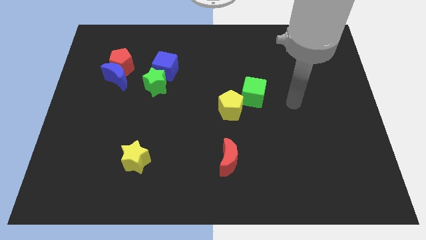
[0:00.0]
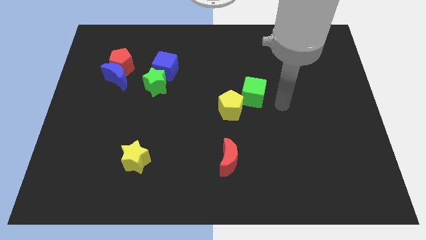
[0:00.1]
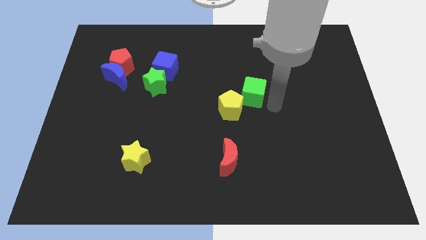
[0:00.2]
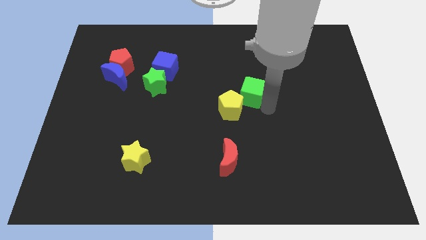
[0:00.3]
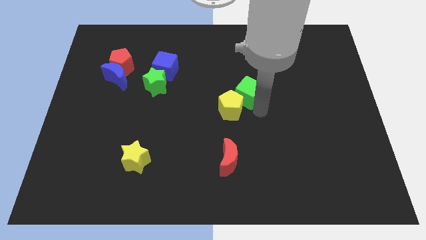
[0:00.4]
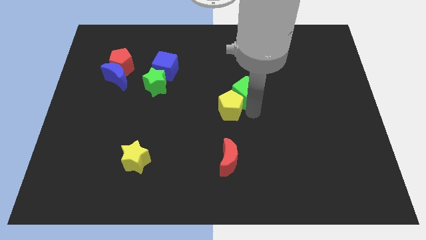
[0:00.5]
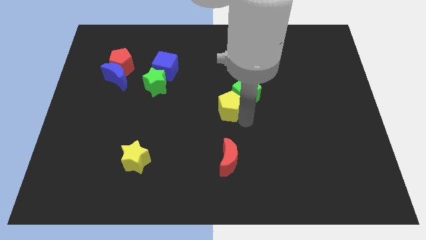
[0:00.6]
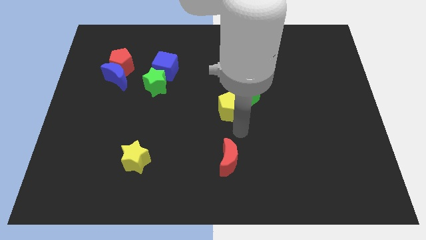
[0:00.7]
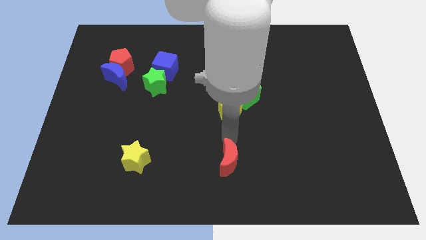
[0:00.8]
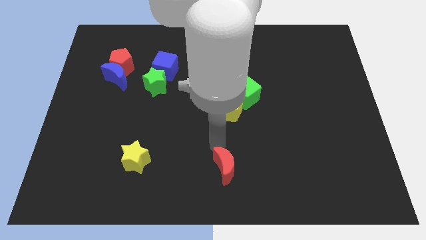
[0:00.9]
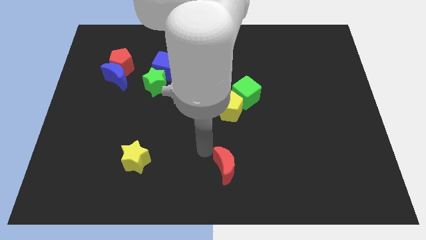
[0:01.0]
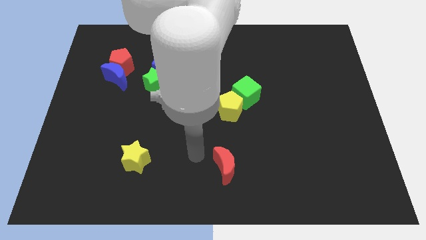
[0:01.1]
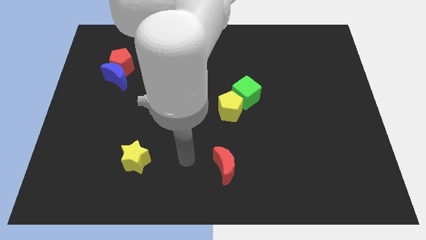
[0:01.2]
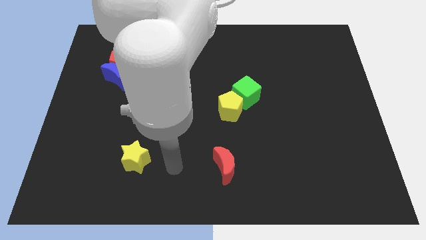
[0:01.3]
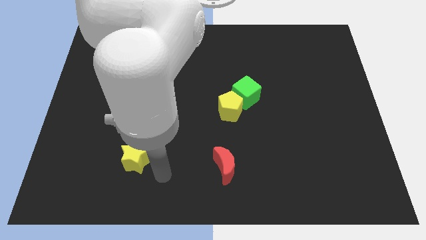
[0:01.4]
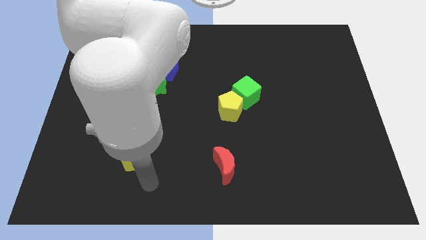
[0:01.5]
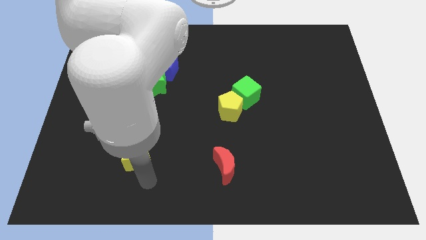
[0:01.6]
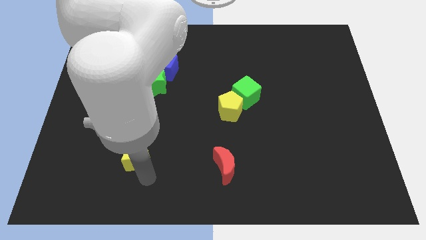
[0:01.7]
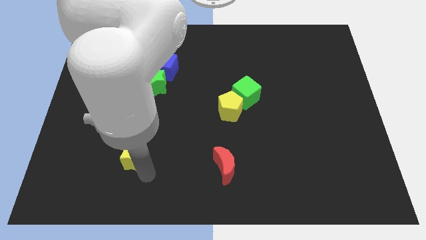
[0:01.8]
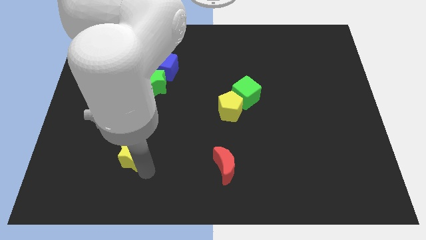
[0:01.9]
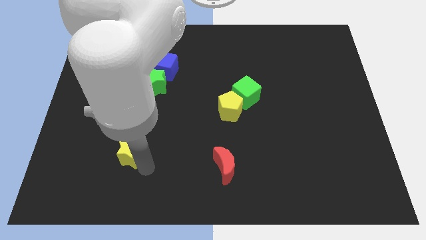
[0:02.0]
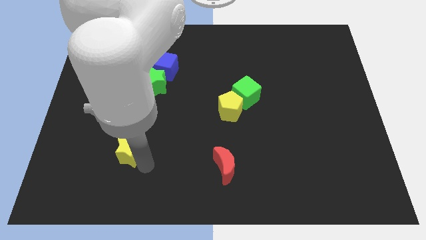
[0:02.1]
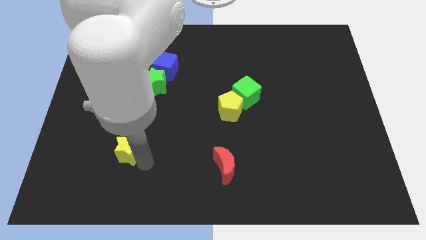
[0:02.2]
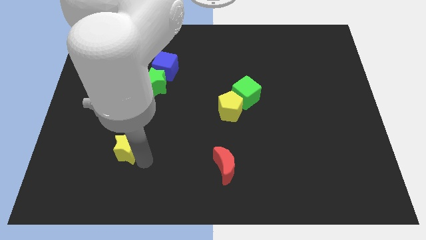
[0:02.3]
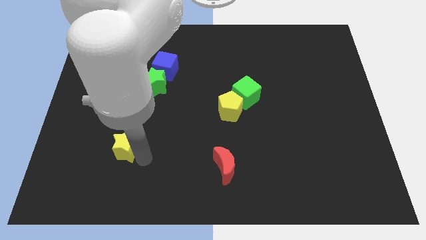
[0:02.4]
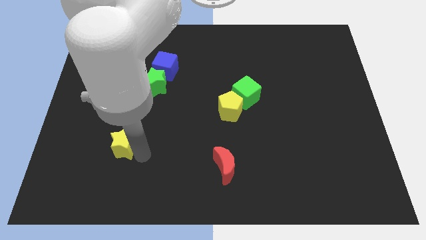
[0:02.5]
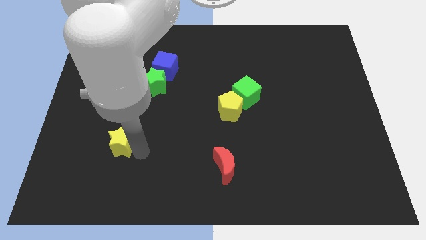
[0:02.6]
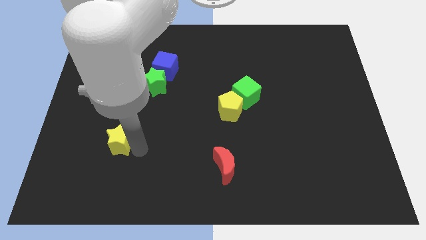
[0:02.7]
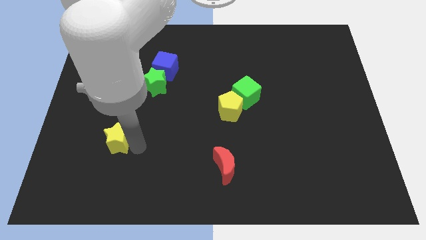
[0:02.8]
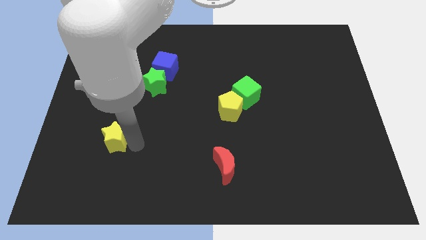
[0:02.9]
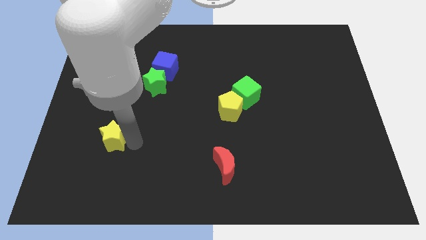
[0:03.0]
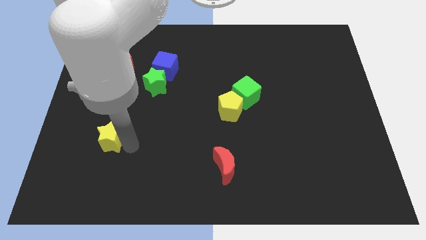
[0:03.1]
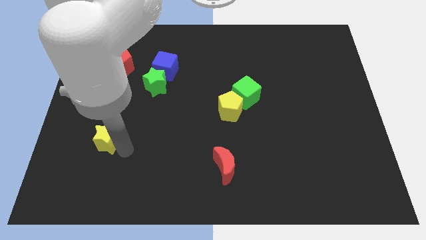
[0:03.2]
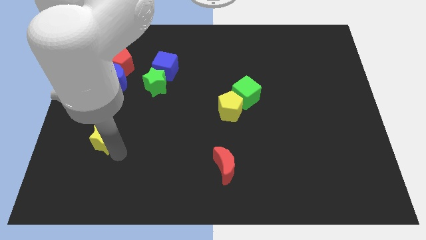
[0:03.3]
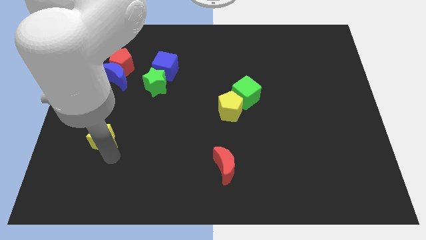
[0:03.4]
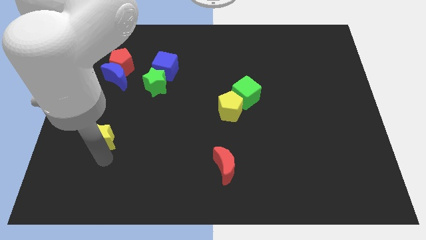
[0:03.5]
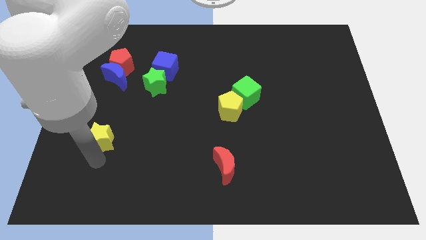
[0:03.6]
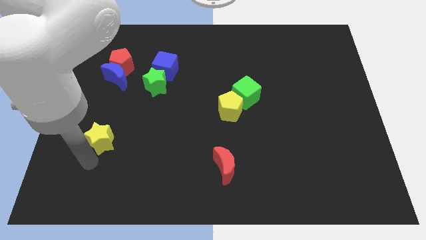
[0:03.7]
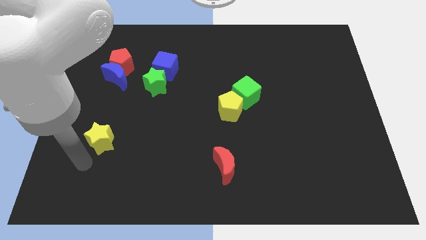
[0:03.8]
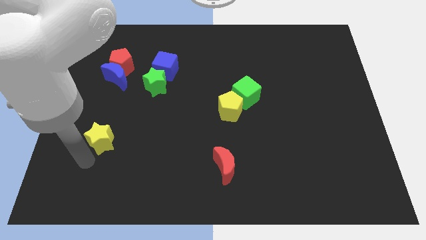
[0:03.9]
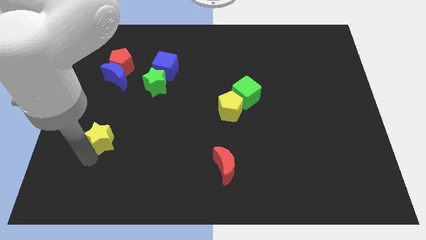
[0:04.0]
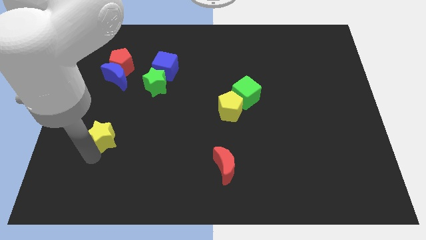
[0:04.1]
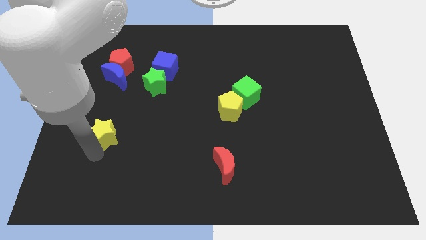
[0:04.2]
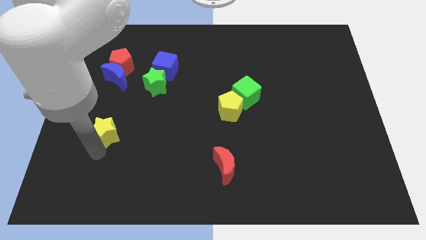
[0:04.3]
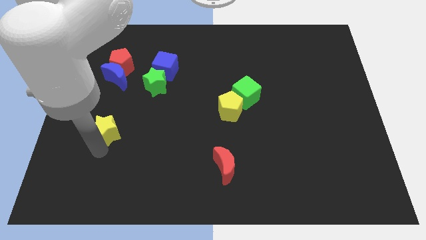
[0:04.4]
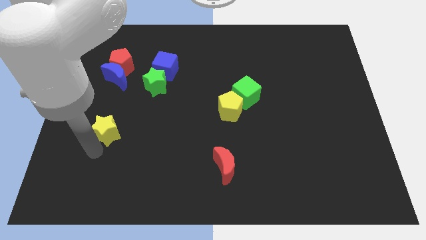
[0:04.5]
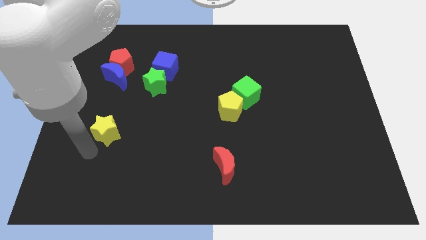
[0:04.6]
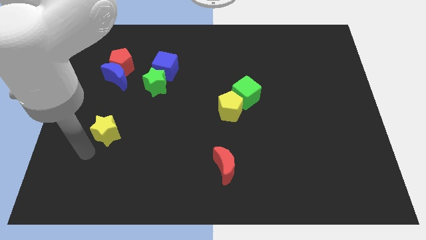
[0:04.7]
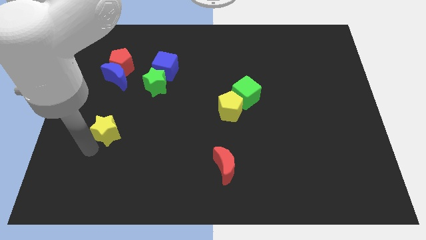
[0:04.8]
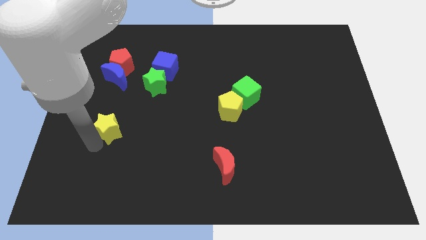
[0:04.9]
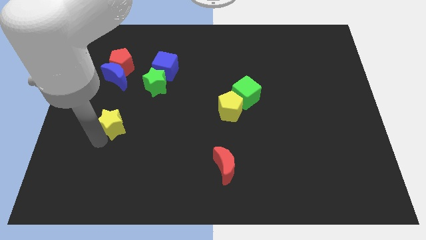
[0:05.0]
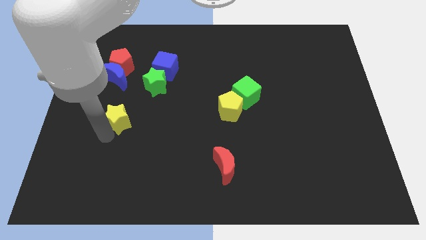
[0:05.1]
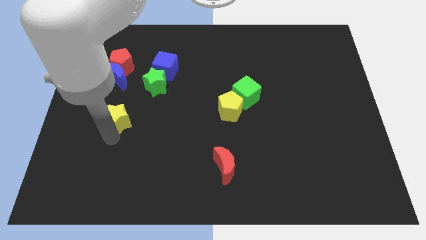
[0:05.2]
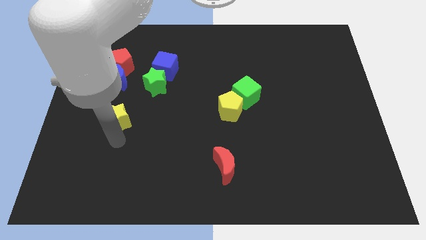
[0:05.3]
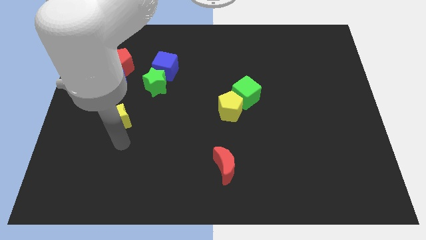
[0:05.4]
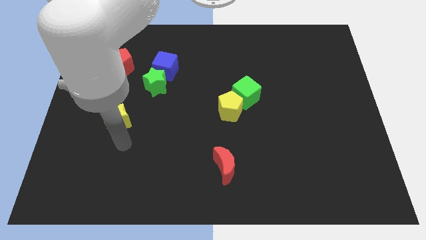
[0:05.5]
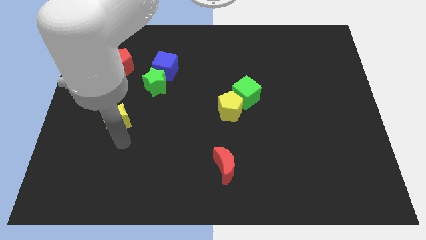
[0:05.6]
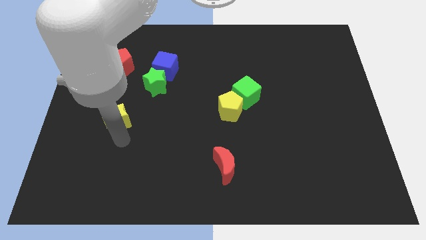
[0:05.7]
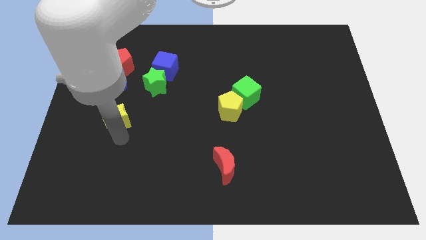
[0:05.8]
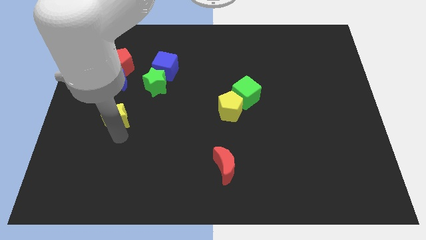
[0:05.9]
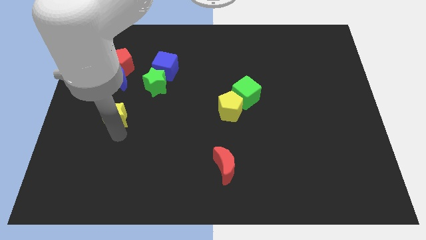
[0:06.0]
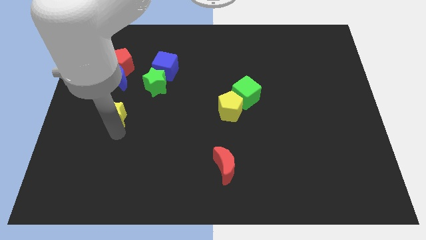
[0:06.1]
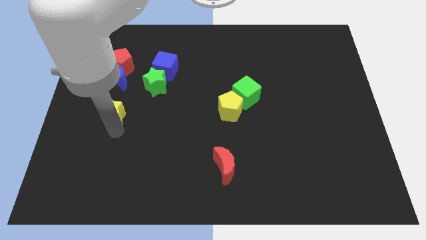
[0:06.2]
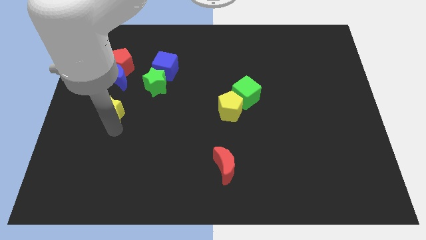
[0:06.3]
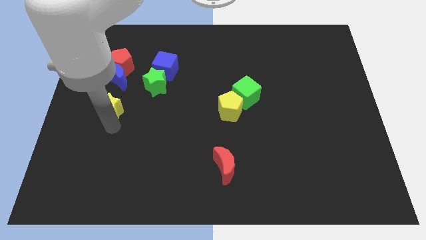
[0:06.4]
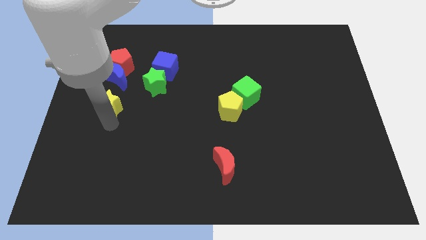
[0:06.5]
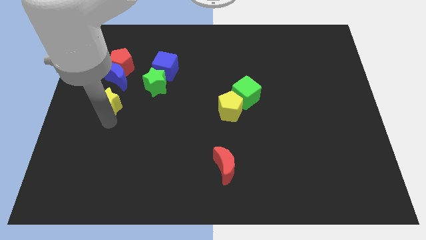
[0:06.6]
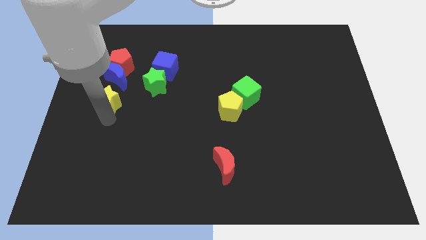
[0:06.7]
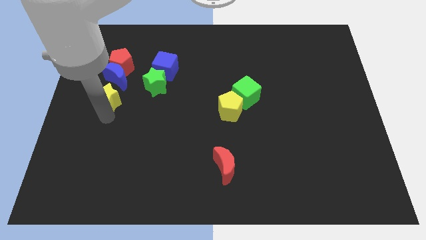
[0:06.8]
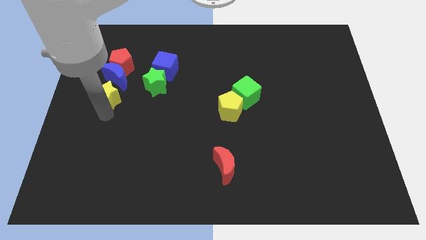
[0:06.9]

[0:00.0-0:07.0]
put the yellow star just left of the green star
